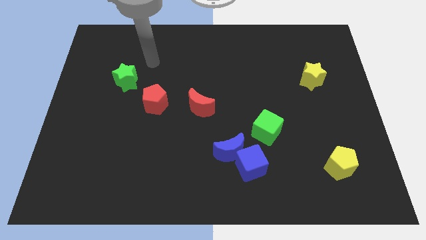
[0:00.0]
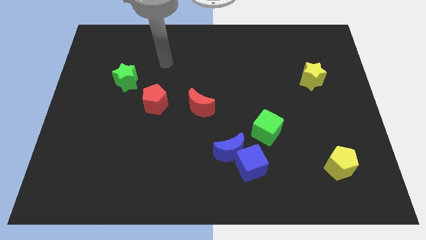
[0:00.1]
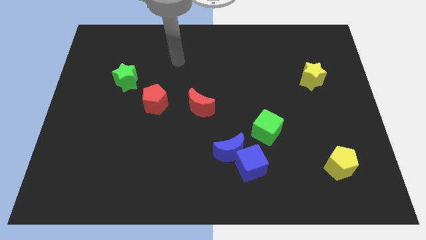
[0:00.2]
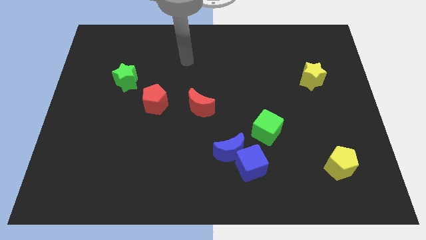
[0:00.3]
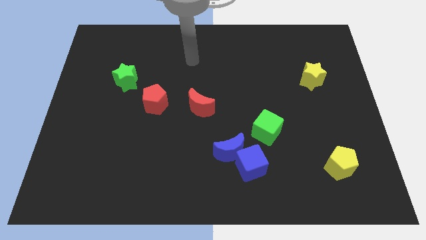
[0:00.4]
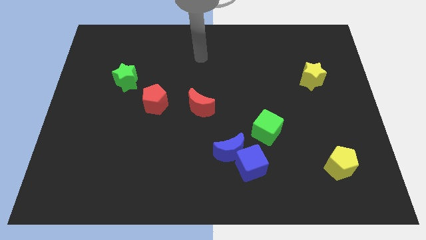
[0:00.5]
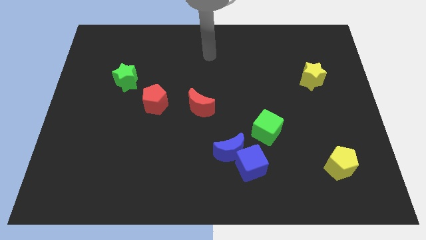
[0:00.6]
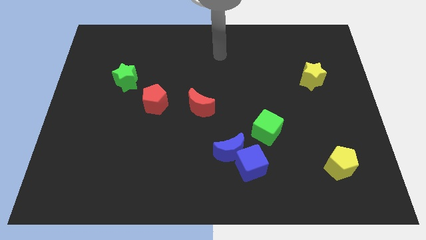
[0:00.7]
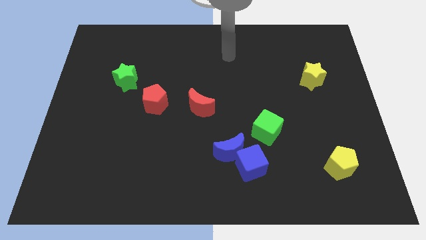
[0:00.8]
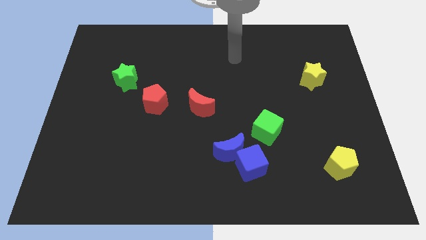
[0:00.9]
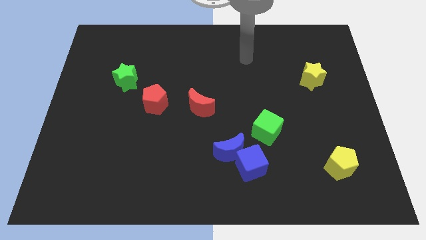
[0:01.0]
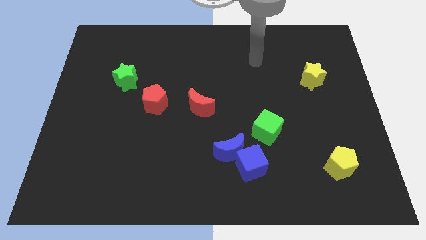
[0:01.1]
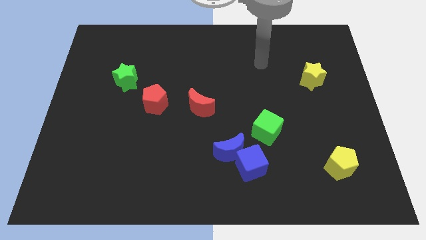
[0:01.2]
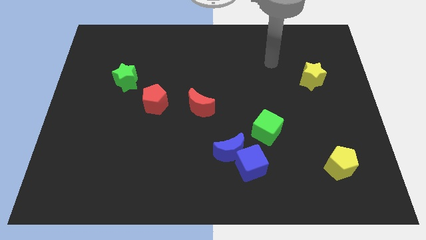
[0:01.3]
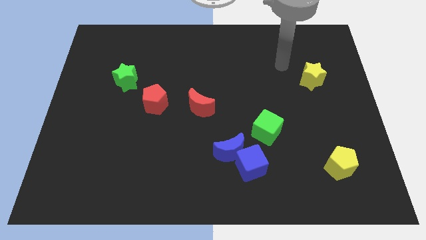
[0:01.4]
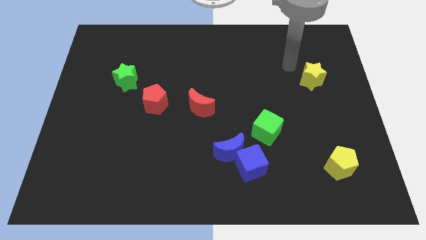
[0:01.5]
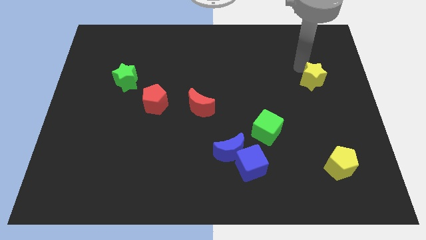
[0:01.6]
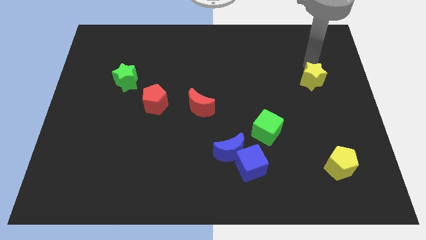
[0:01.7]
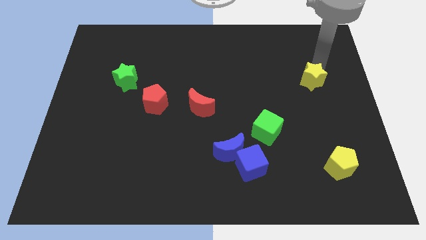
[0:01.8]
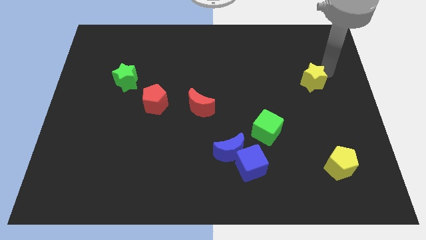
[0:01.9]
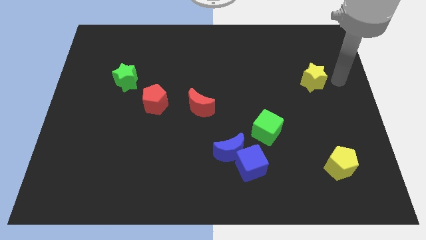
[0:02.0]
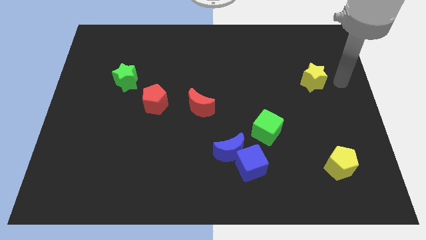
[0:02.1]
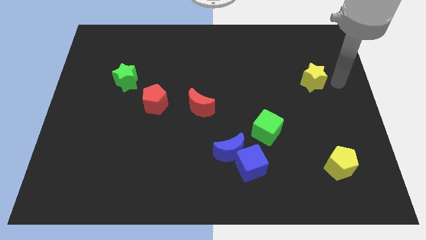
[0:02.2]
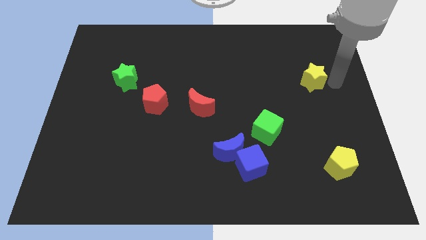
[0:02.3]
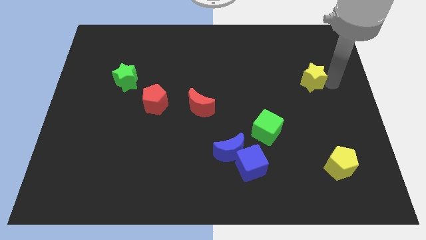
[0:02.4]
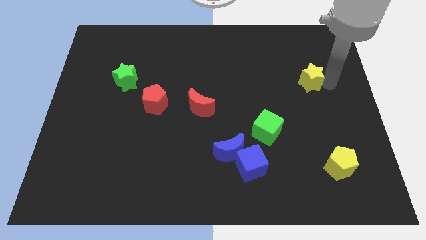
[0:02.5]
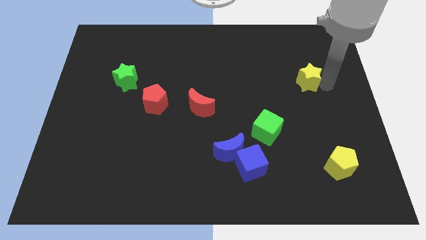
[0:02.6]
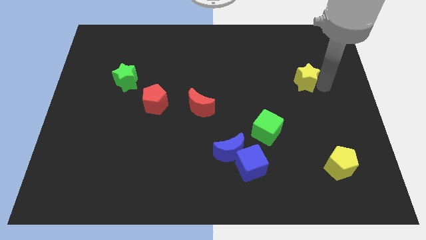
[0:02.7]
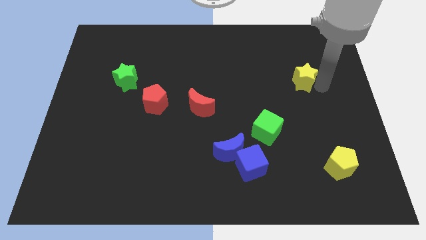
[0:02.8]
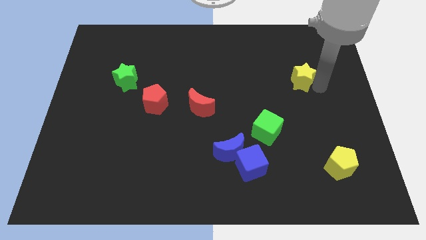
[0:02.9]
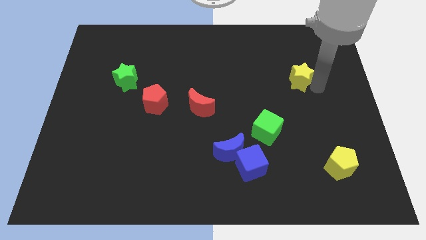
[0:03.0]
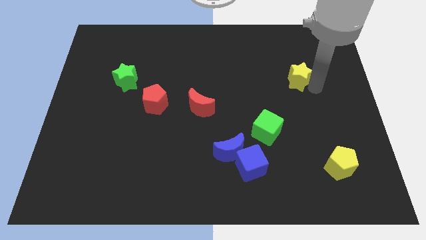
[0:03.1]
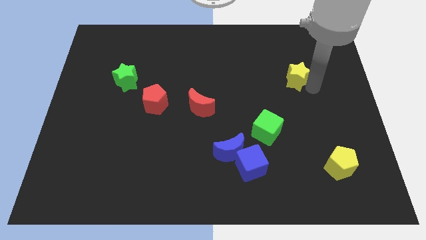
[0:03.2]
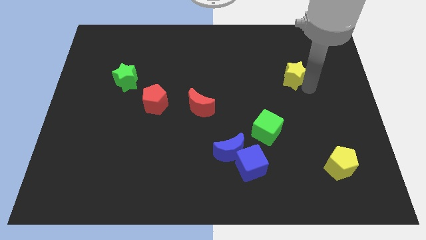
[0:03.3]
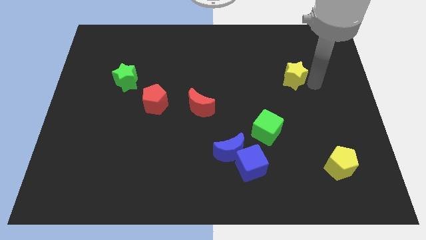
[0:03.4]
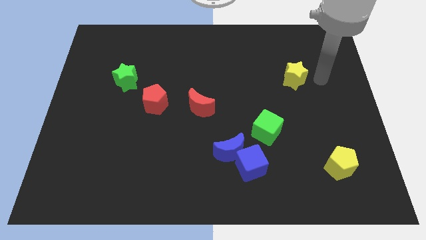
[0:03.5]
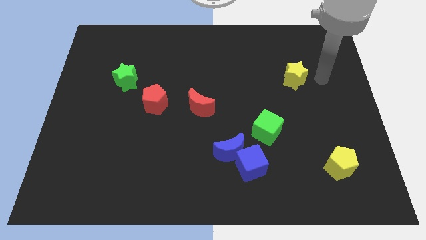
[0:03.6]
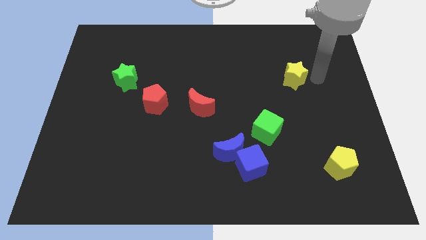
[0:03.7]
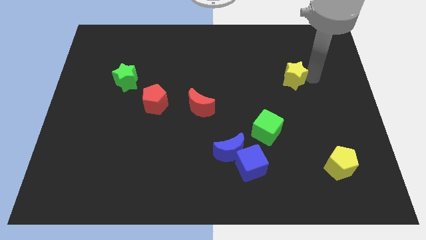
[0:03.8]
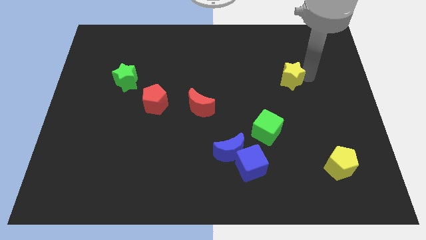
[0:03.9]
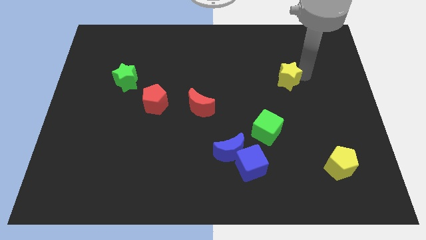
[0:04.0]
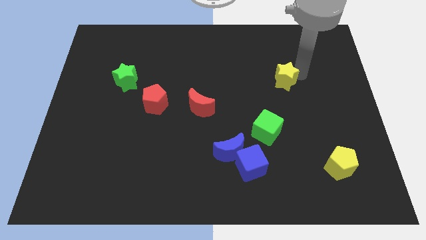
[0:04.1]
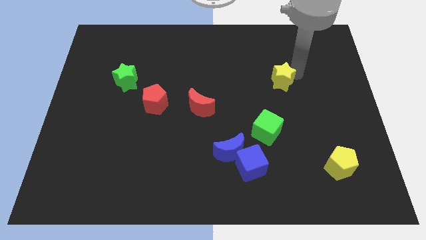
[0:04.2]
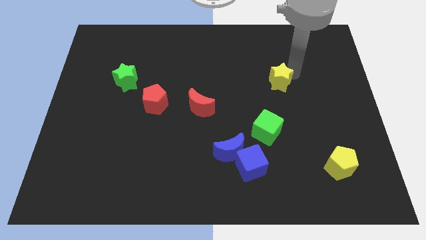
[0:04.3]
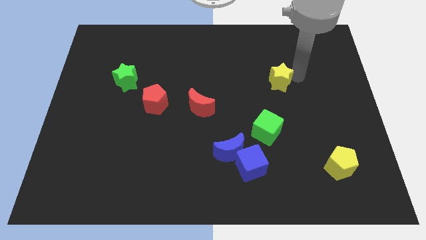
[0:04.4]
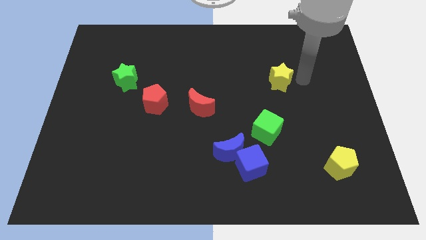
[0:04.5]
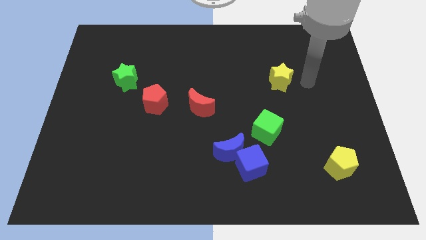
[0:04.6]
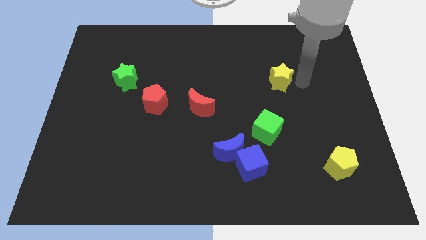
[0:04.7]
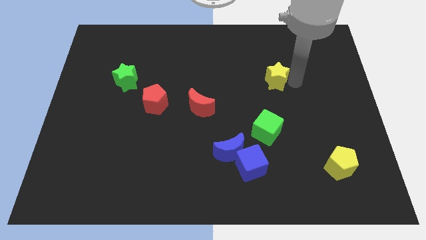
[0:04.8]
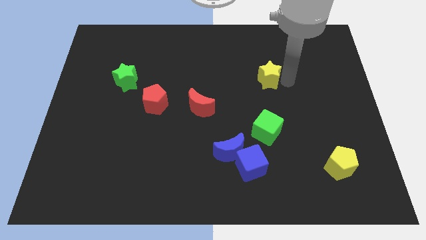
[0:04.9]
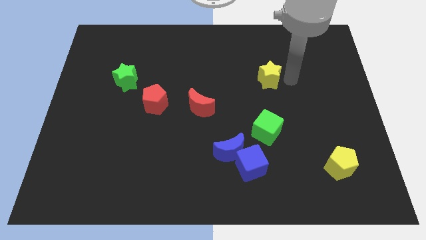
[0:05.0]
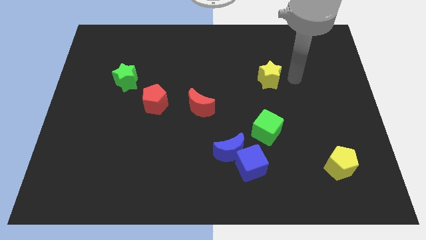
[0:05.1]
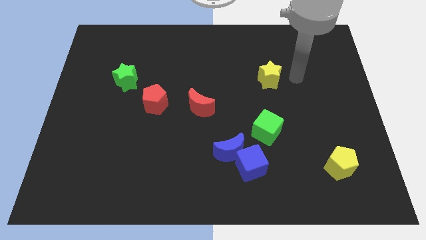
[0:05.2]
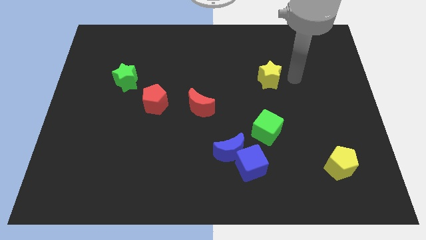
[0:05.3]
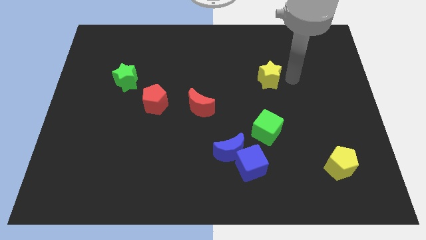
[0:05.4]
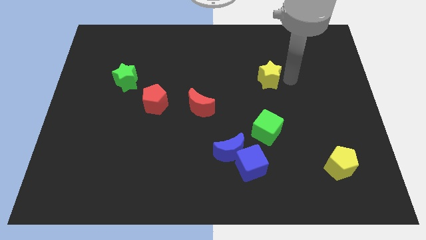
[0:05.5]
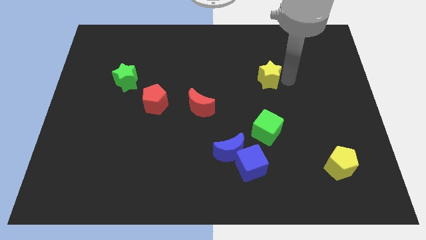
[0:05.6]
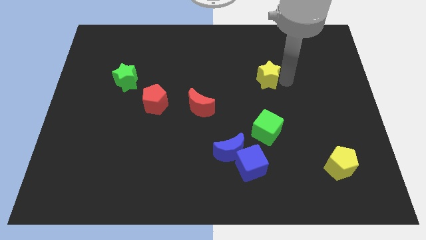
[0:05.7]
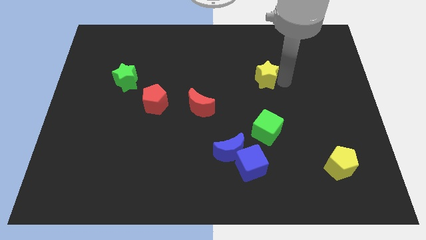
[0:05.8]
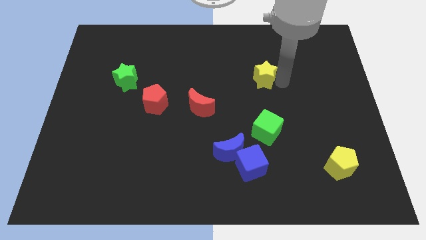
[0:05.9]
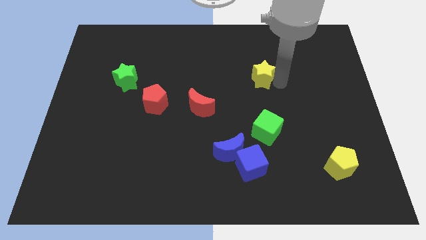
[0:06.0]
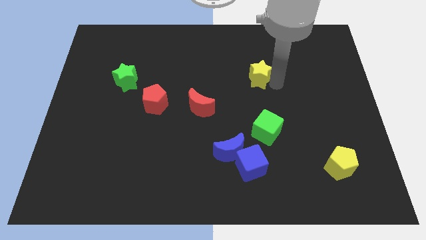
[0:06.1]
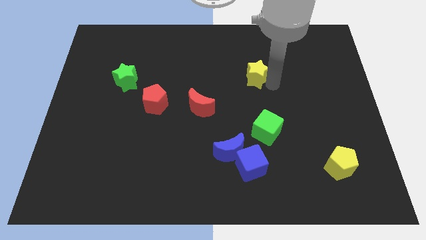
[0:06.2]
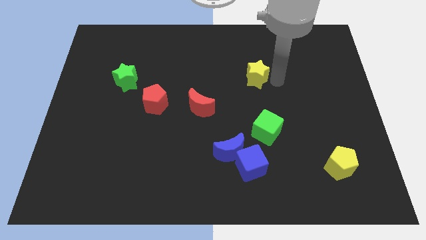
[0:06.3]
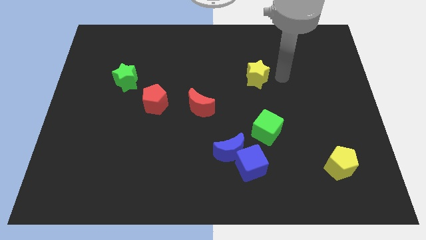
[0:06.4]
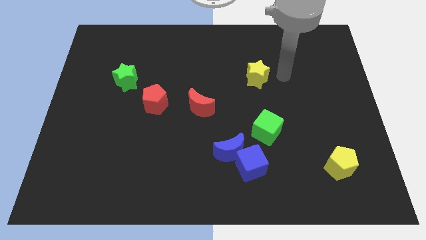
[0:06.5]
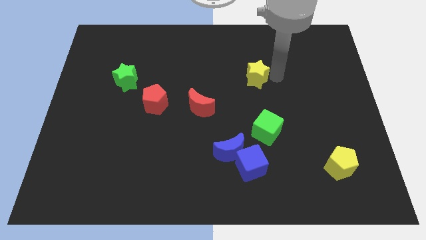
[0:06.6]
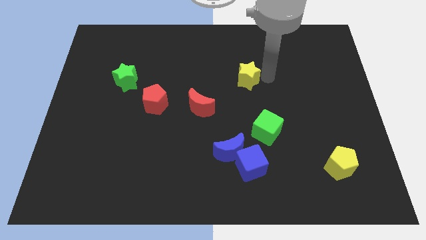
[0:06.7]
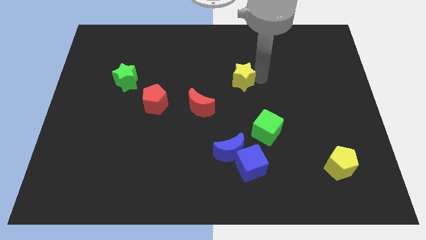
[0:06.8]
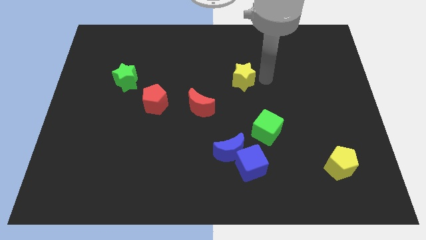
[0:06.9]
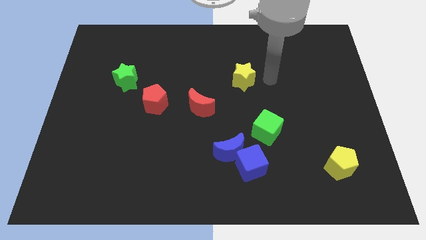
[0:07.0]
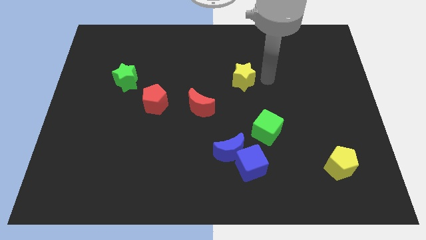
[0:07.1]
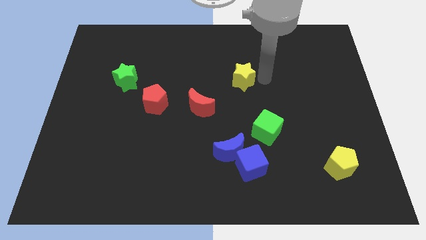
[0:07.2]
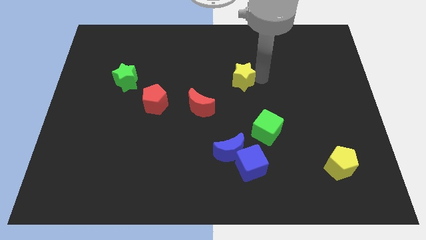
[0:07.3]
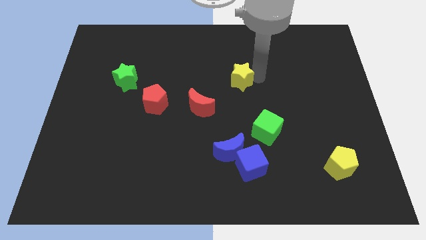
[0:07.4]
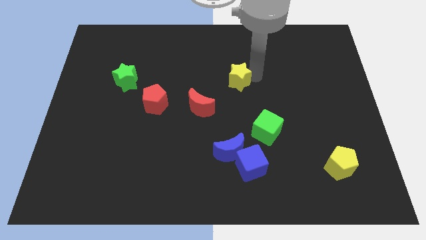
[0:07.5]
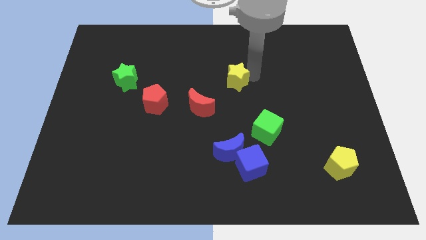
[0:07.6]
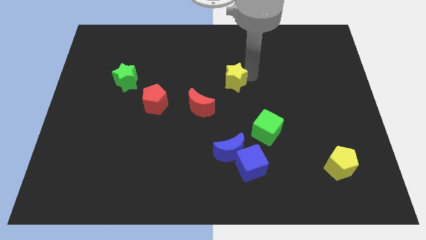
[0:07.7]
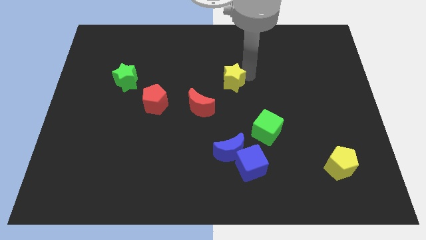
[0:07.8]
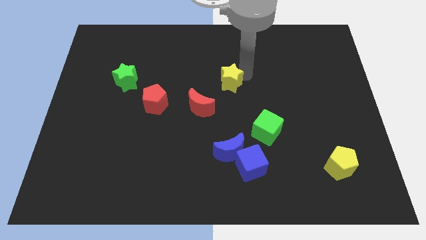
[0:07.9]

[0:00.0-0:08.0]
slide the yellow star left
